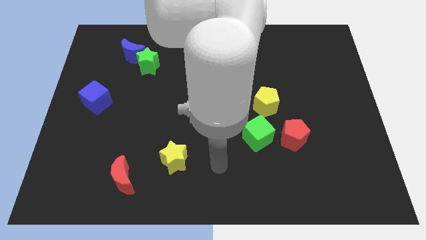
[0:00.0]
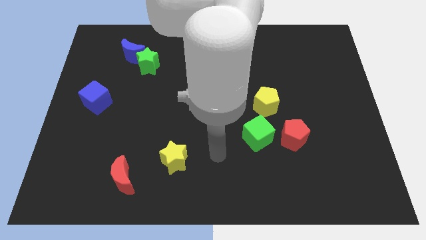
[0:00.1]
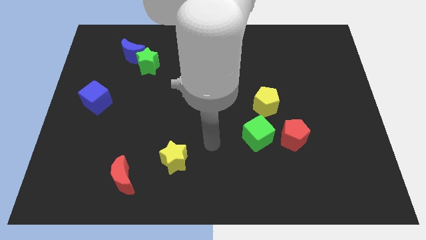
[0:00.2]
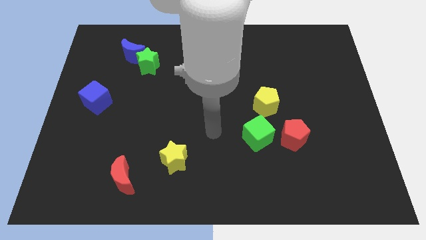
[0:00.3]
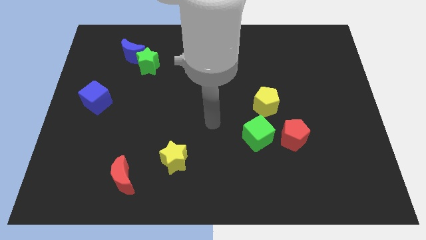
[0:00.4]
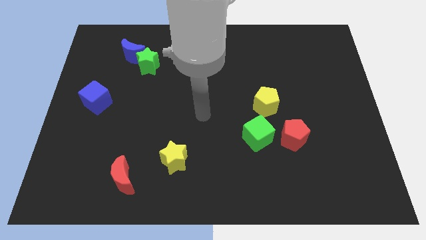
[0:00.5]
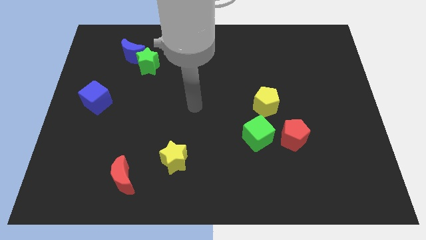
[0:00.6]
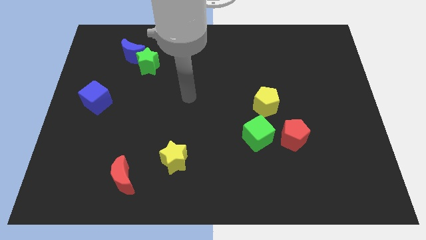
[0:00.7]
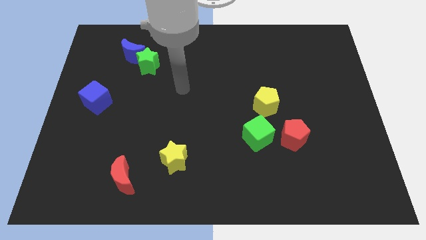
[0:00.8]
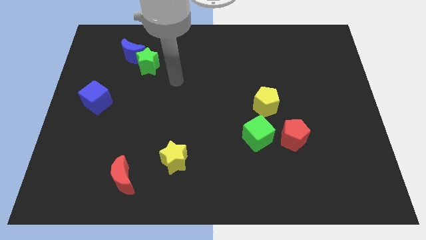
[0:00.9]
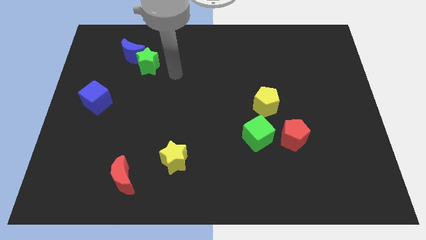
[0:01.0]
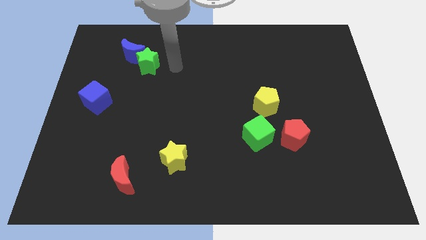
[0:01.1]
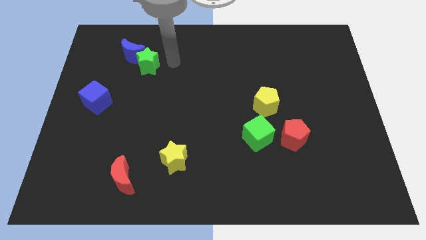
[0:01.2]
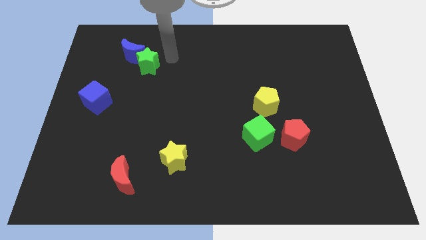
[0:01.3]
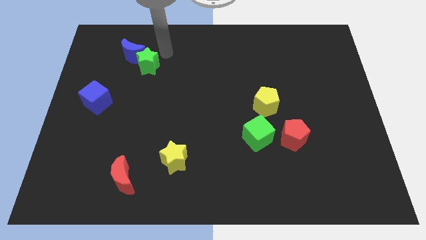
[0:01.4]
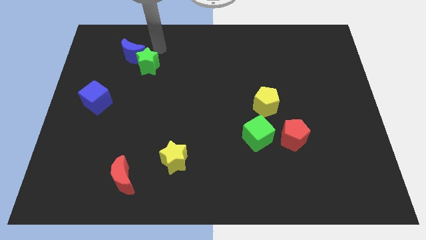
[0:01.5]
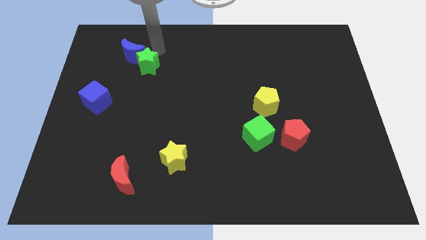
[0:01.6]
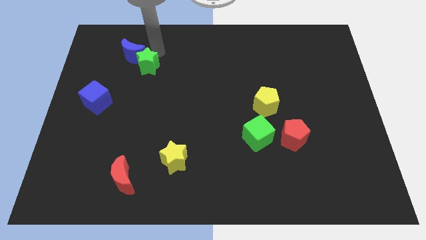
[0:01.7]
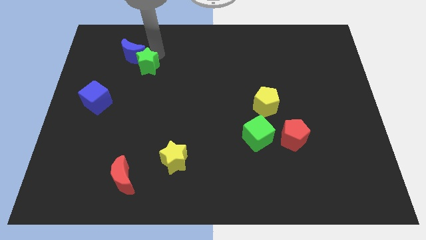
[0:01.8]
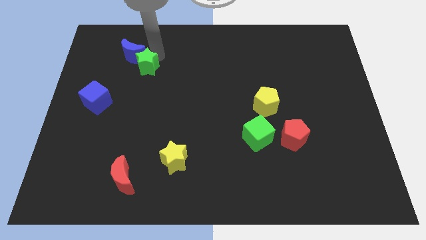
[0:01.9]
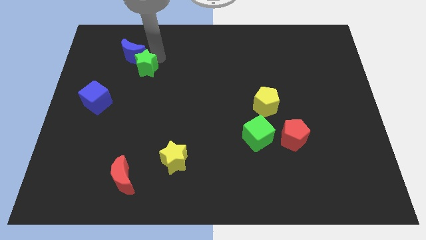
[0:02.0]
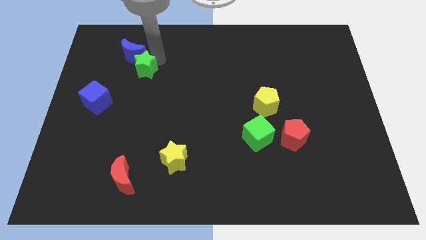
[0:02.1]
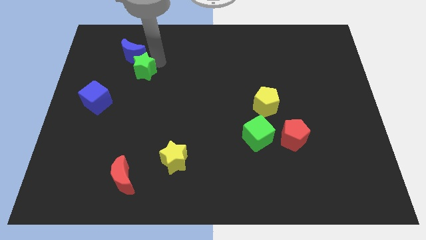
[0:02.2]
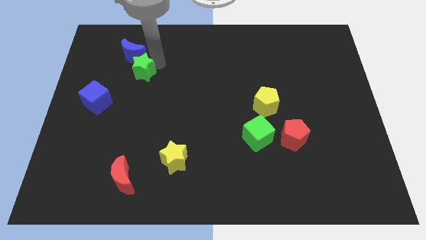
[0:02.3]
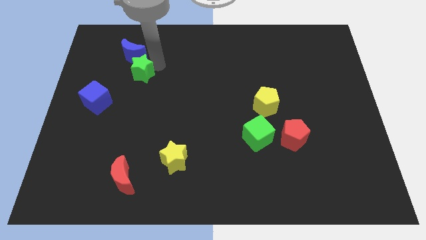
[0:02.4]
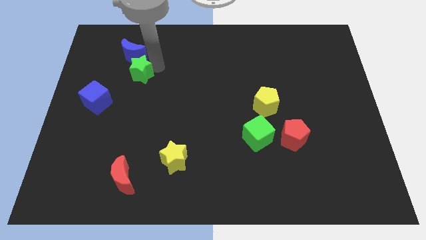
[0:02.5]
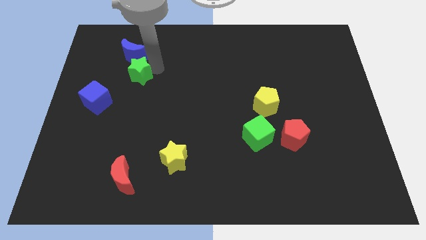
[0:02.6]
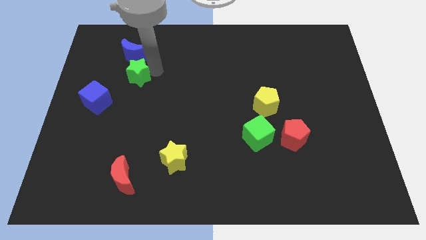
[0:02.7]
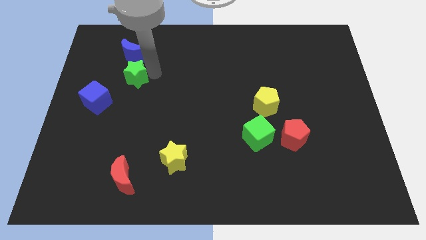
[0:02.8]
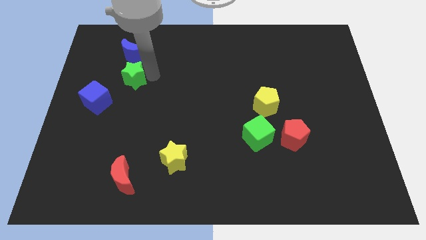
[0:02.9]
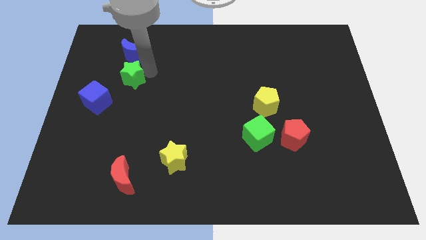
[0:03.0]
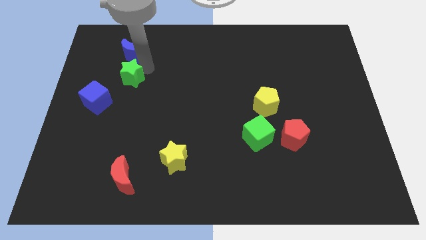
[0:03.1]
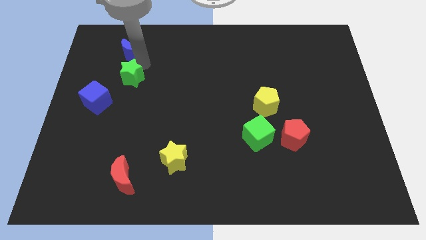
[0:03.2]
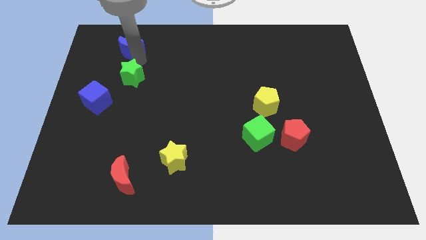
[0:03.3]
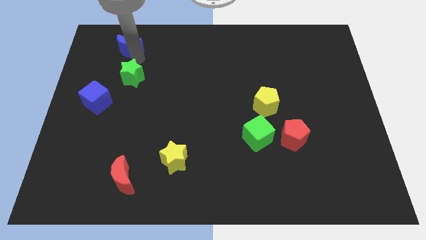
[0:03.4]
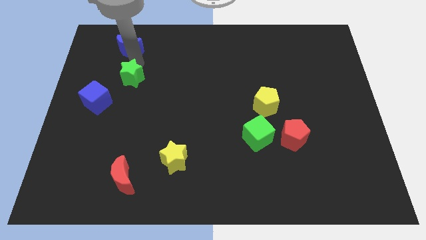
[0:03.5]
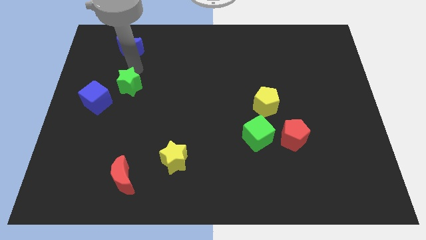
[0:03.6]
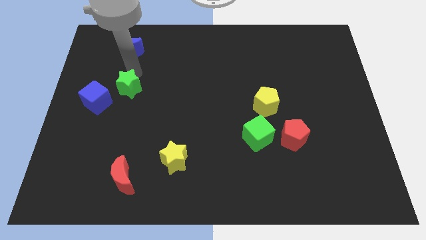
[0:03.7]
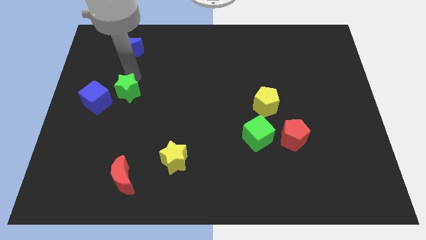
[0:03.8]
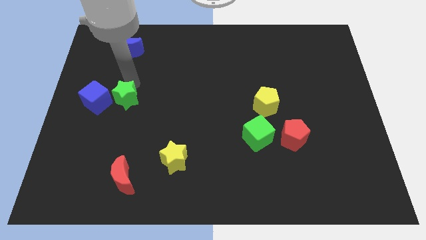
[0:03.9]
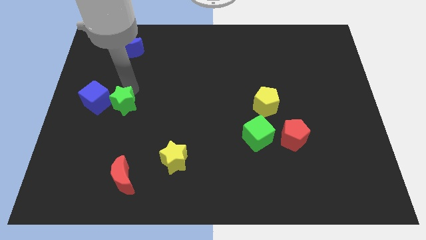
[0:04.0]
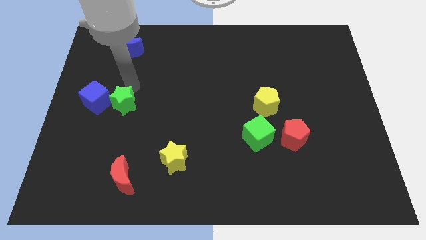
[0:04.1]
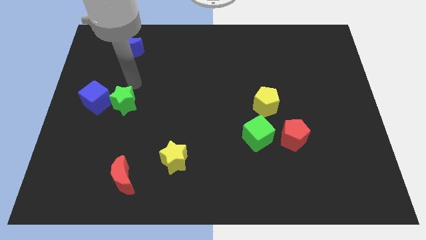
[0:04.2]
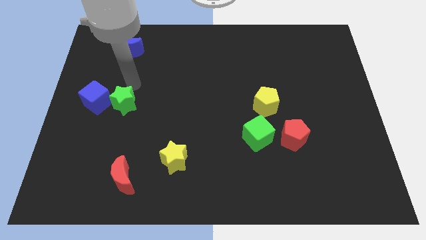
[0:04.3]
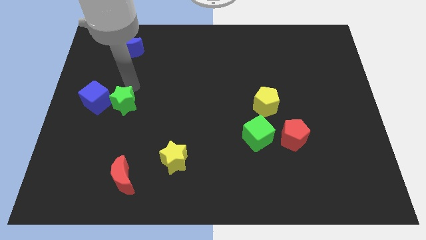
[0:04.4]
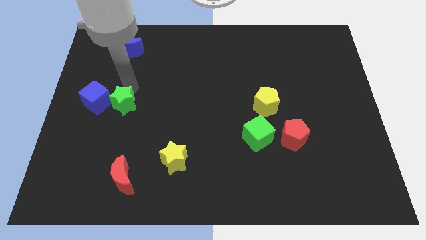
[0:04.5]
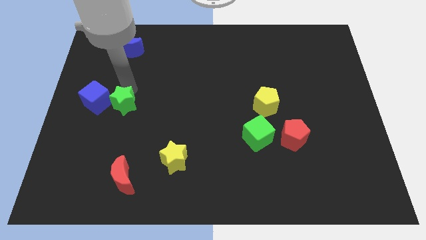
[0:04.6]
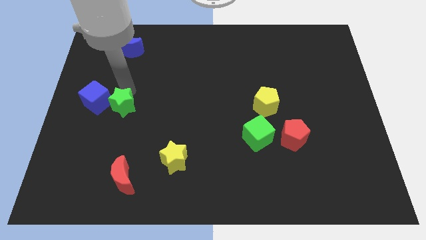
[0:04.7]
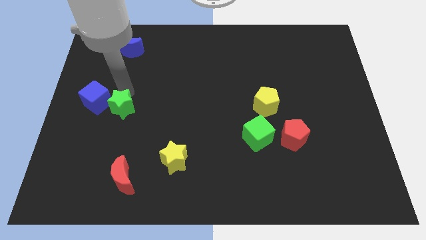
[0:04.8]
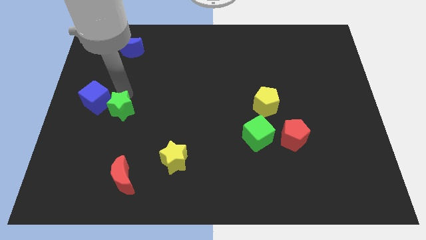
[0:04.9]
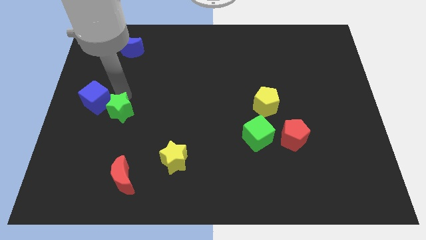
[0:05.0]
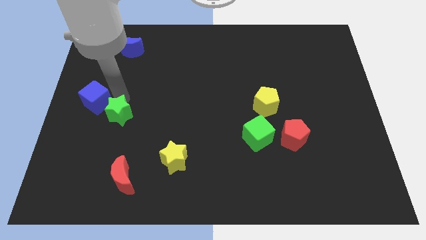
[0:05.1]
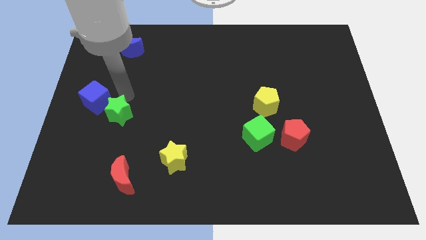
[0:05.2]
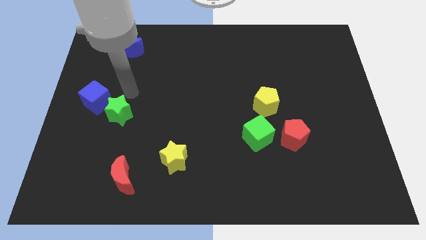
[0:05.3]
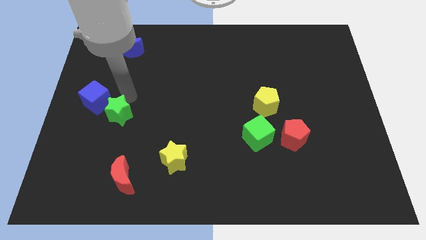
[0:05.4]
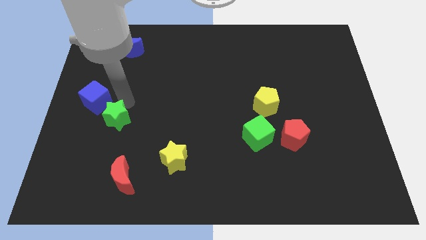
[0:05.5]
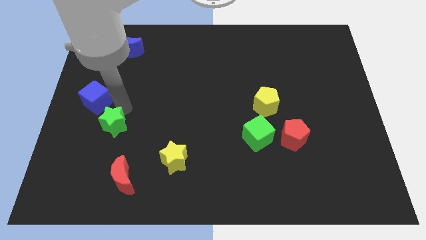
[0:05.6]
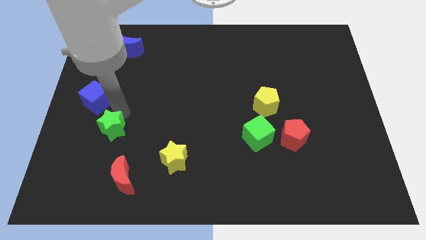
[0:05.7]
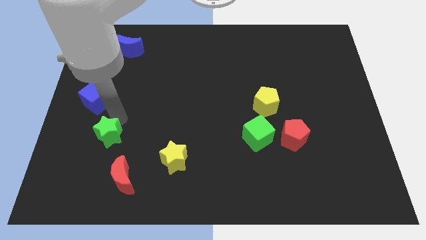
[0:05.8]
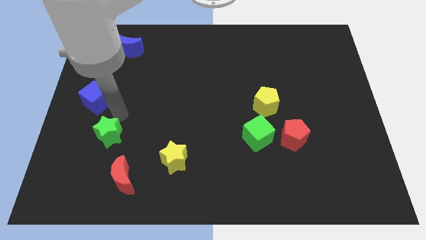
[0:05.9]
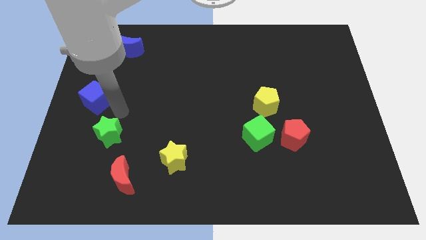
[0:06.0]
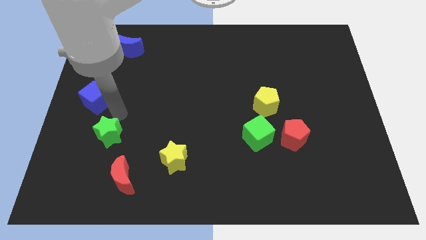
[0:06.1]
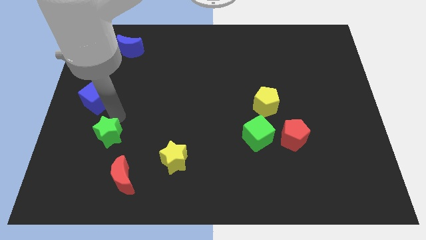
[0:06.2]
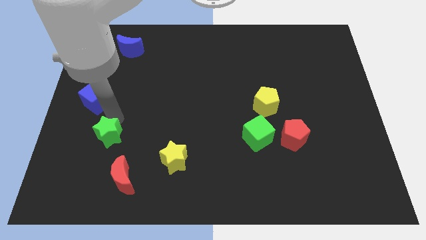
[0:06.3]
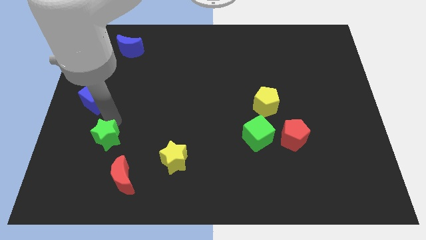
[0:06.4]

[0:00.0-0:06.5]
slide the green star diagonally up and to the left of the red moon

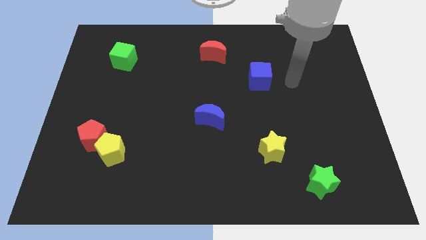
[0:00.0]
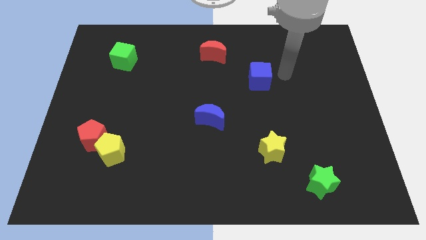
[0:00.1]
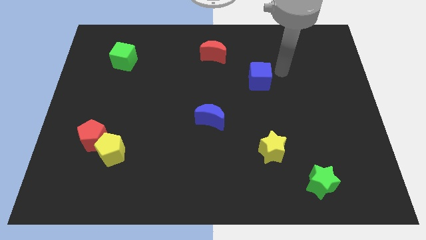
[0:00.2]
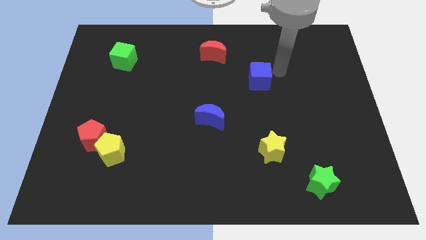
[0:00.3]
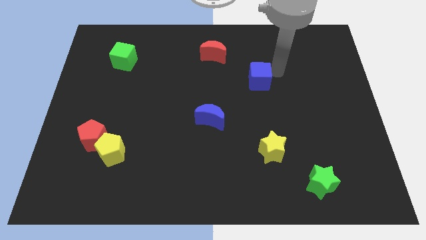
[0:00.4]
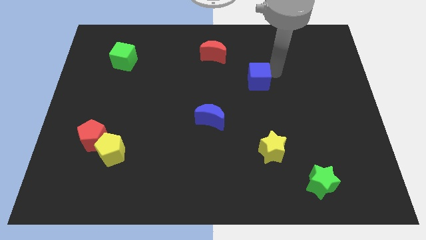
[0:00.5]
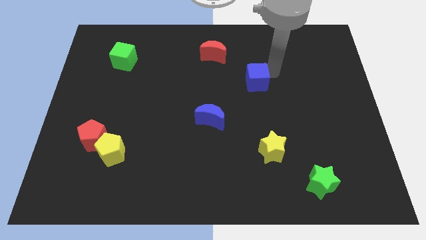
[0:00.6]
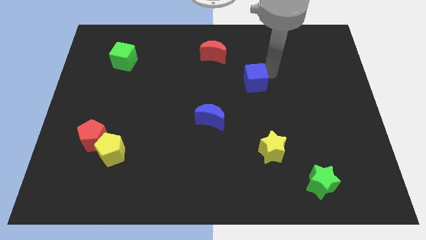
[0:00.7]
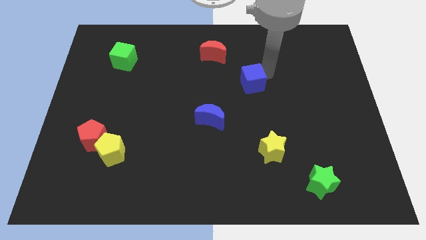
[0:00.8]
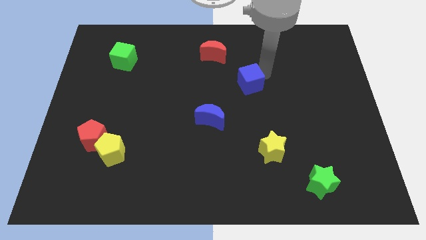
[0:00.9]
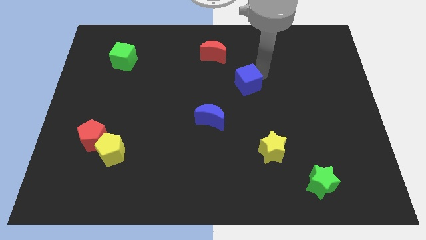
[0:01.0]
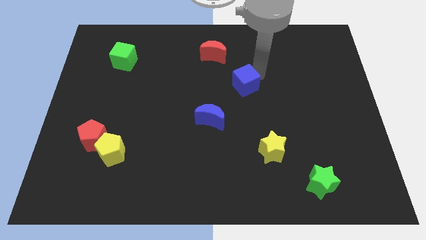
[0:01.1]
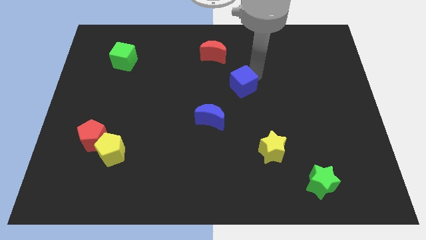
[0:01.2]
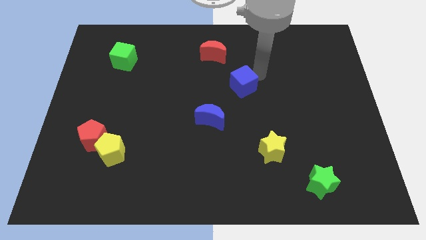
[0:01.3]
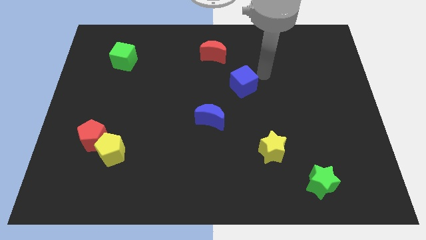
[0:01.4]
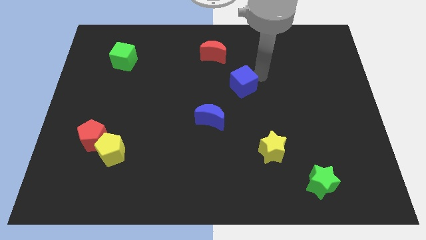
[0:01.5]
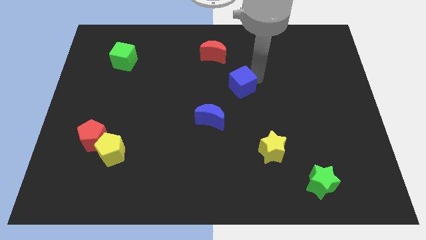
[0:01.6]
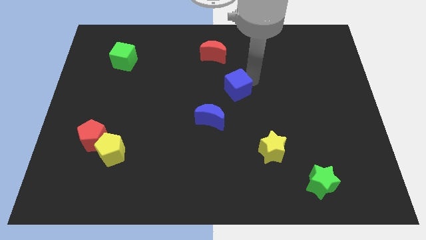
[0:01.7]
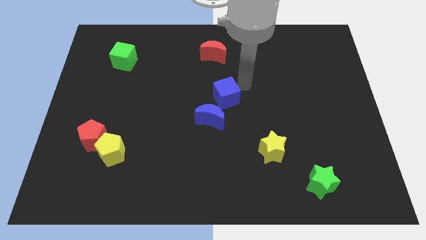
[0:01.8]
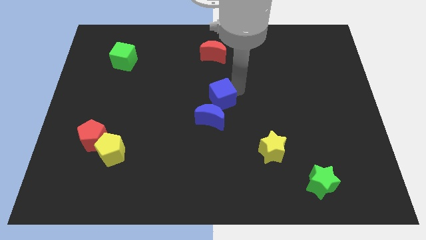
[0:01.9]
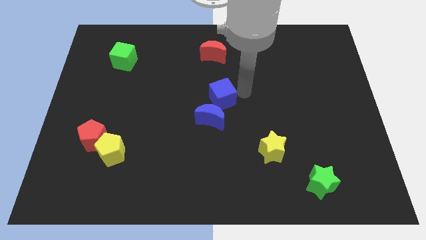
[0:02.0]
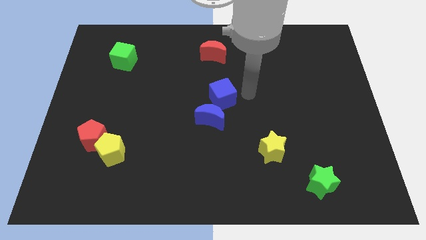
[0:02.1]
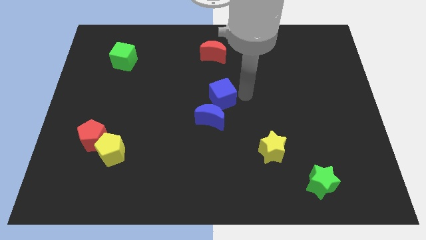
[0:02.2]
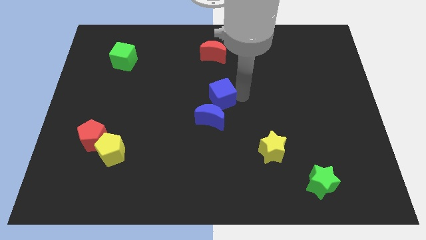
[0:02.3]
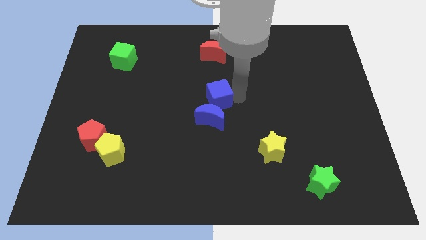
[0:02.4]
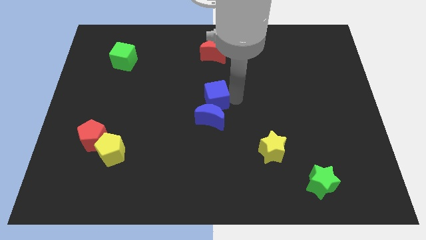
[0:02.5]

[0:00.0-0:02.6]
push the blue cube to the top left side of the blue moon
